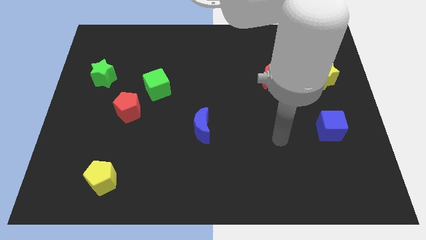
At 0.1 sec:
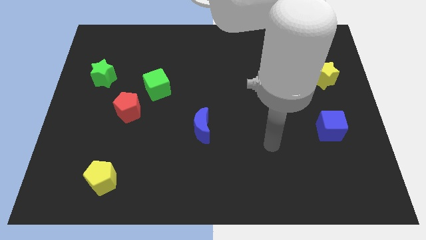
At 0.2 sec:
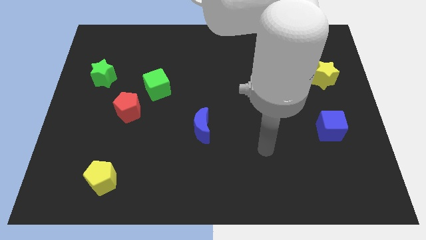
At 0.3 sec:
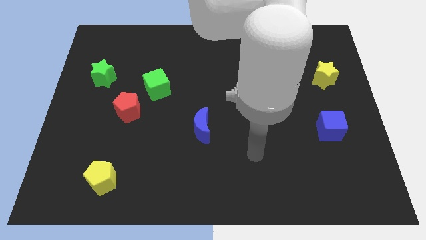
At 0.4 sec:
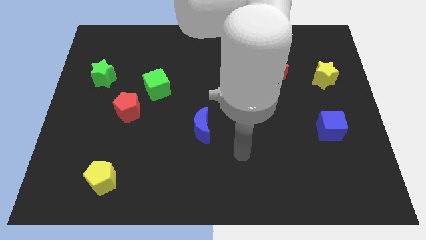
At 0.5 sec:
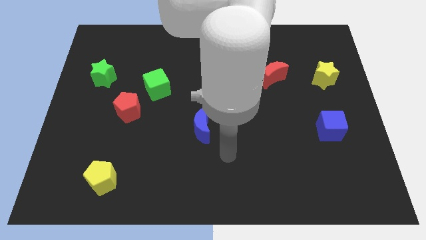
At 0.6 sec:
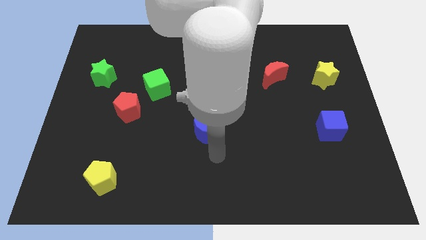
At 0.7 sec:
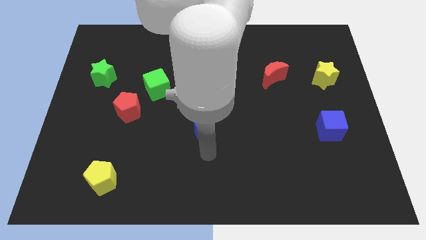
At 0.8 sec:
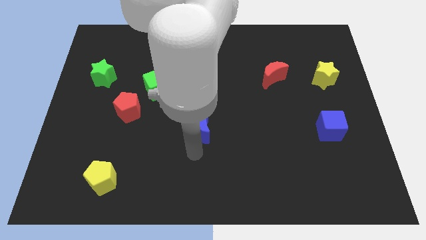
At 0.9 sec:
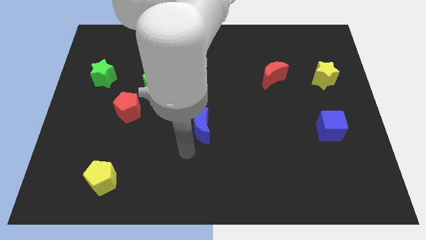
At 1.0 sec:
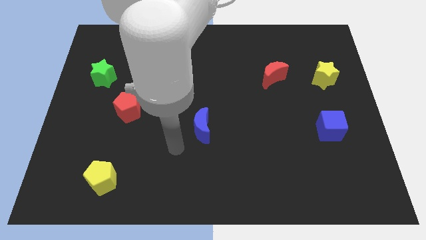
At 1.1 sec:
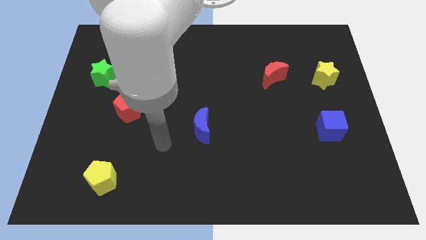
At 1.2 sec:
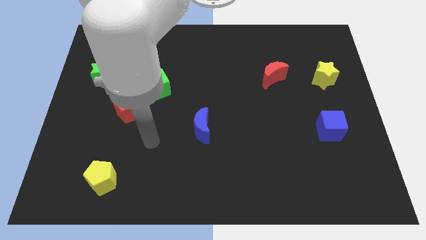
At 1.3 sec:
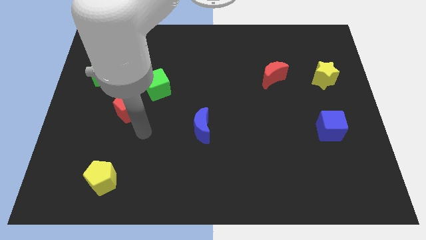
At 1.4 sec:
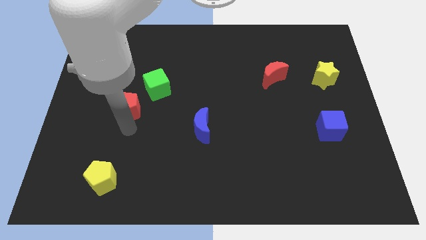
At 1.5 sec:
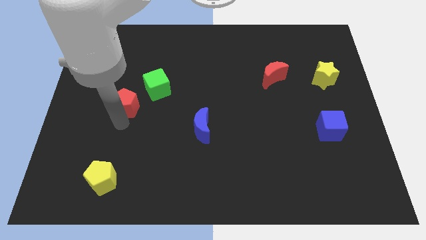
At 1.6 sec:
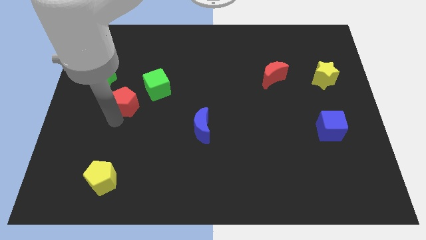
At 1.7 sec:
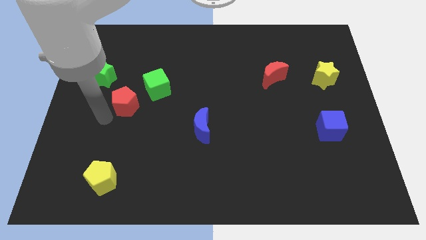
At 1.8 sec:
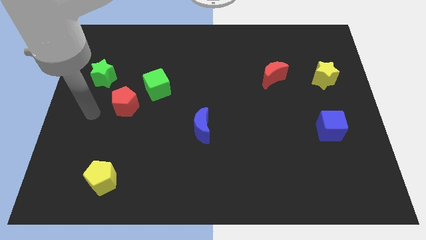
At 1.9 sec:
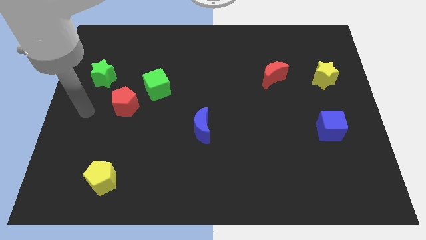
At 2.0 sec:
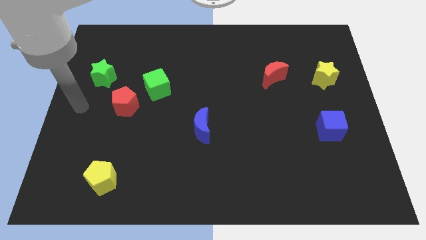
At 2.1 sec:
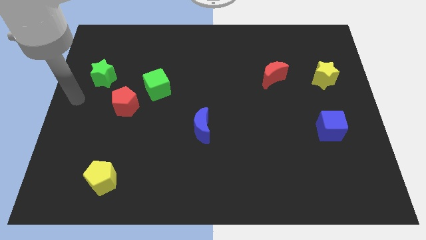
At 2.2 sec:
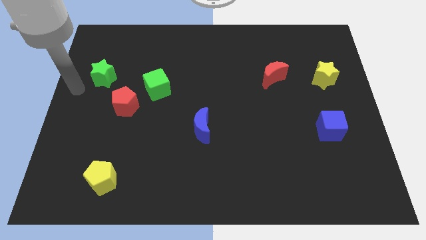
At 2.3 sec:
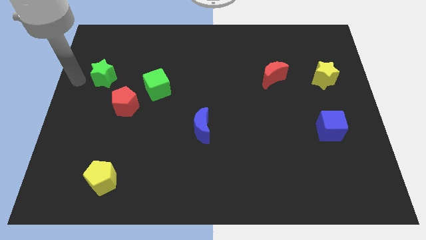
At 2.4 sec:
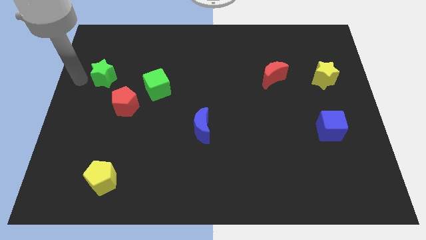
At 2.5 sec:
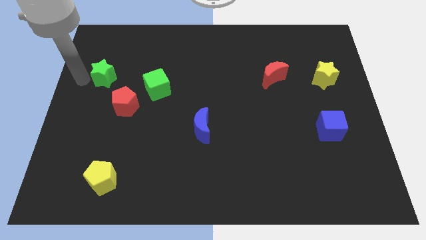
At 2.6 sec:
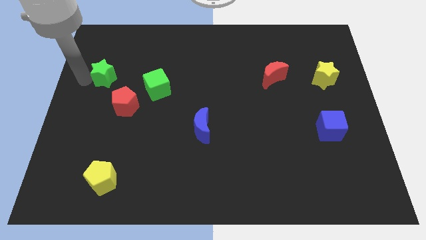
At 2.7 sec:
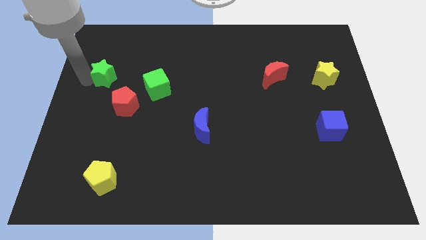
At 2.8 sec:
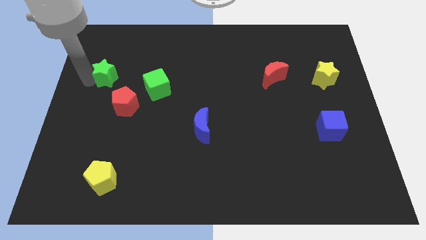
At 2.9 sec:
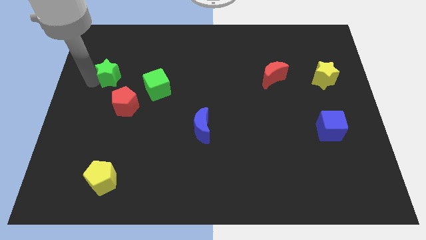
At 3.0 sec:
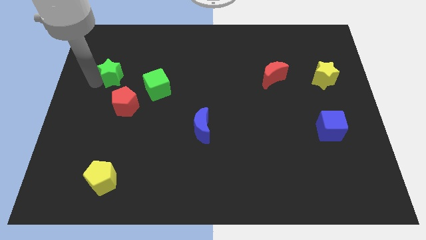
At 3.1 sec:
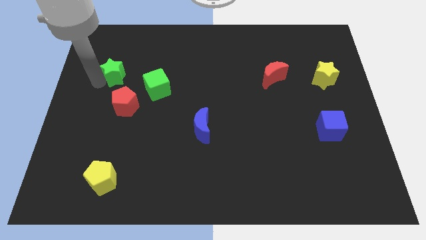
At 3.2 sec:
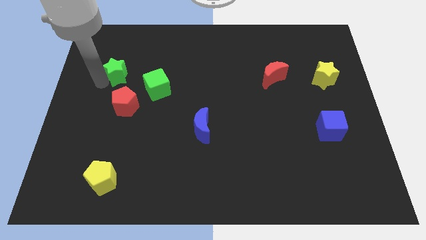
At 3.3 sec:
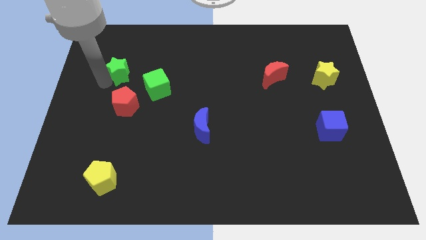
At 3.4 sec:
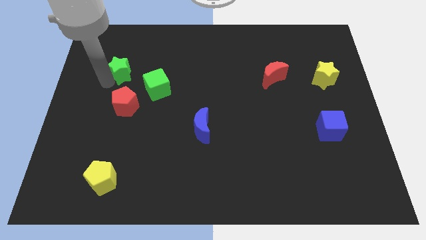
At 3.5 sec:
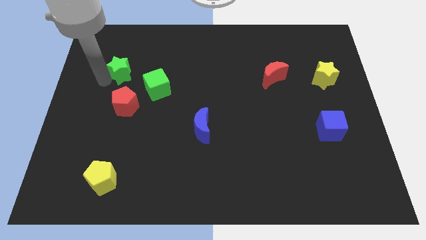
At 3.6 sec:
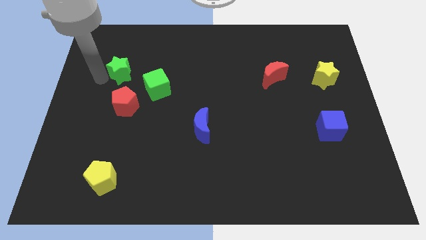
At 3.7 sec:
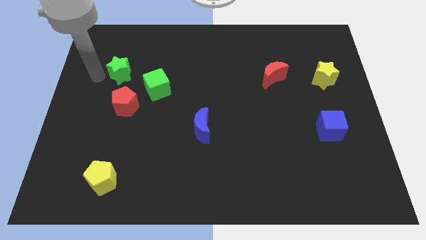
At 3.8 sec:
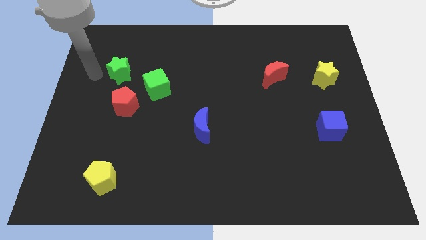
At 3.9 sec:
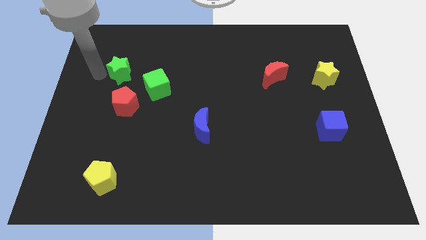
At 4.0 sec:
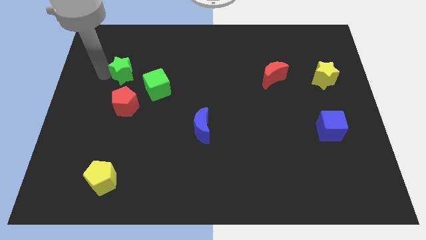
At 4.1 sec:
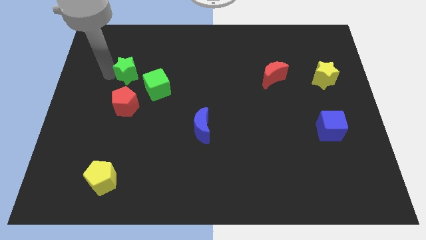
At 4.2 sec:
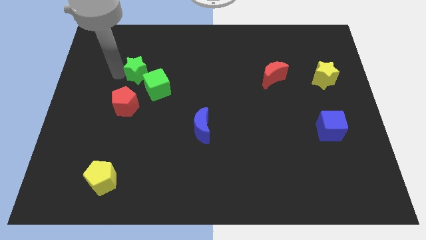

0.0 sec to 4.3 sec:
slide the green star a bit to the right

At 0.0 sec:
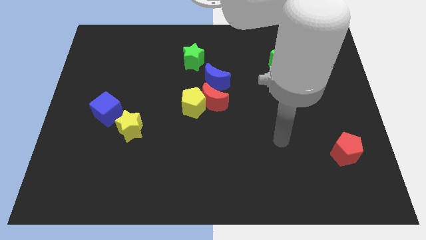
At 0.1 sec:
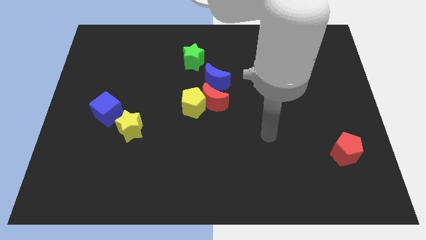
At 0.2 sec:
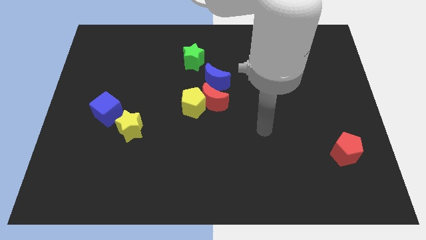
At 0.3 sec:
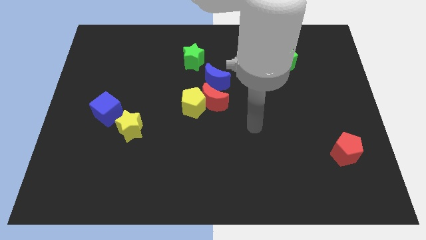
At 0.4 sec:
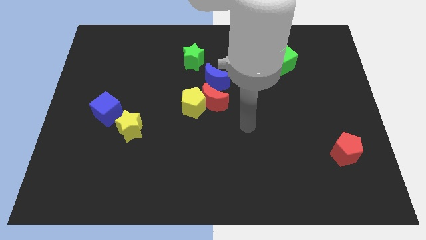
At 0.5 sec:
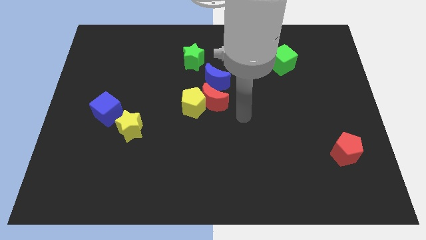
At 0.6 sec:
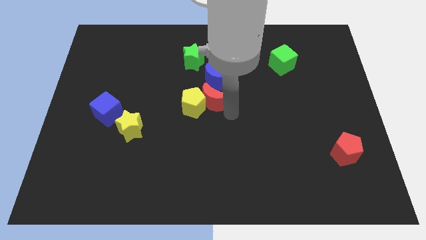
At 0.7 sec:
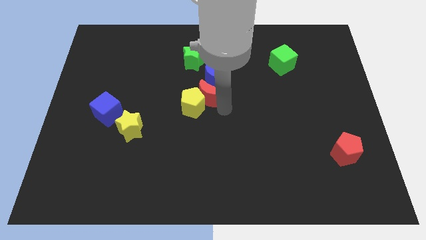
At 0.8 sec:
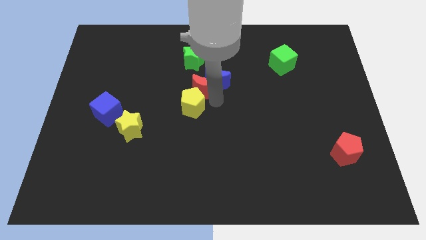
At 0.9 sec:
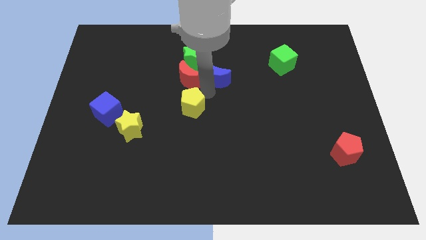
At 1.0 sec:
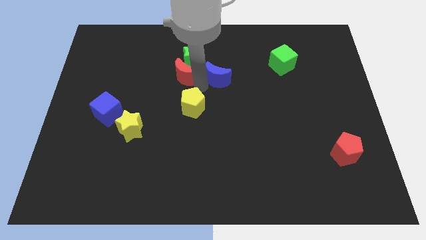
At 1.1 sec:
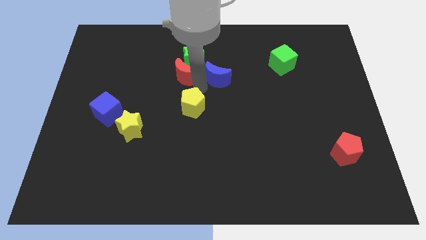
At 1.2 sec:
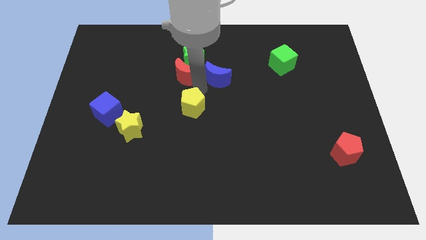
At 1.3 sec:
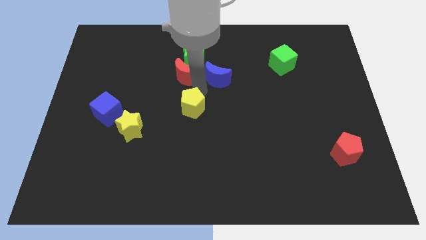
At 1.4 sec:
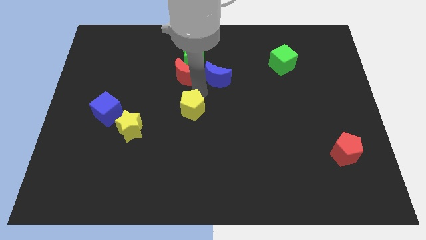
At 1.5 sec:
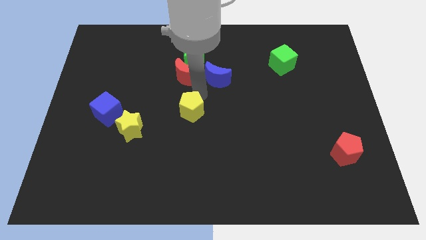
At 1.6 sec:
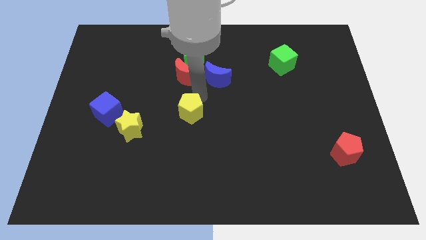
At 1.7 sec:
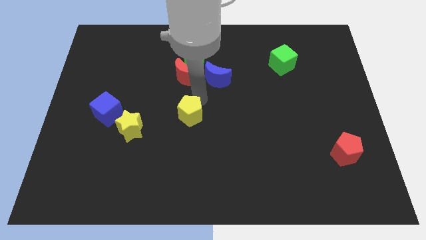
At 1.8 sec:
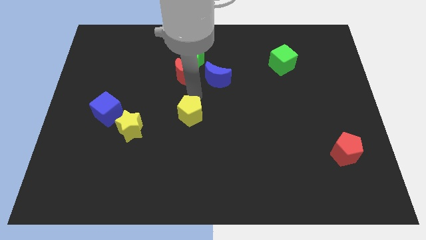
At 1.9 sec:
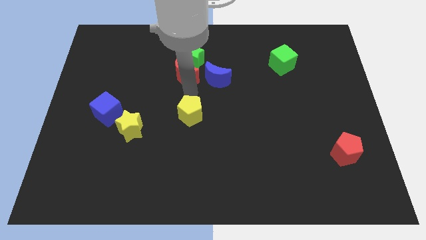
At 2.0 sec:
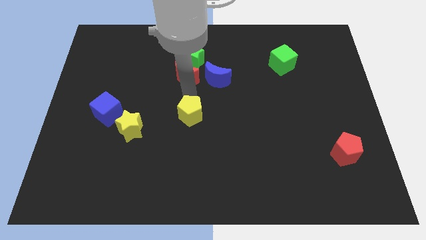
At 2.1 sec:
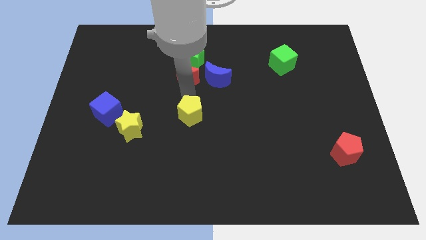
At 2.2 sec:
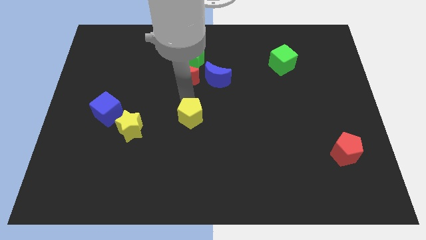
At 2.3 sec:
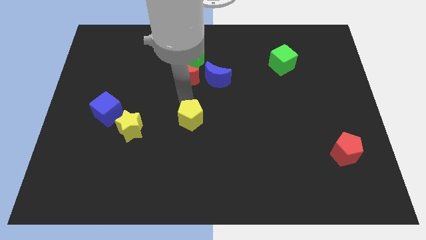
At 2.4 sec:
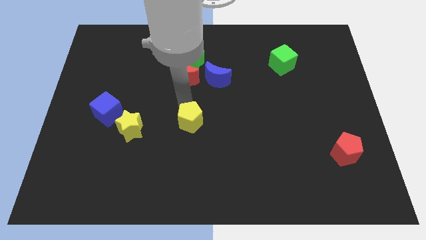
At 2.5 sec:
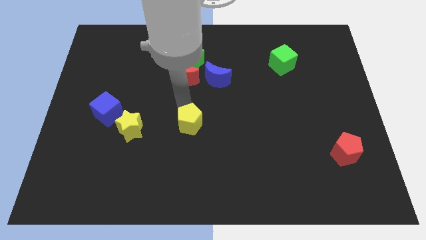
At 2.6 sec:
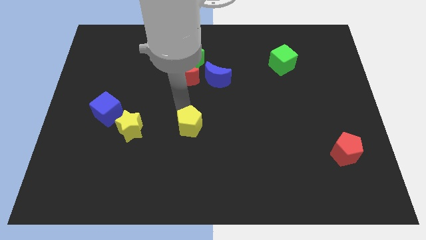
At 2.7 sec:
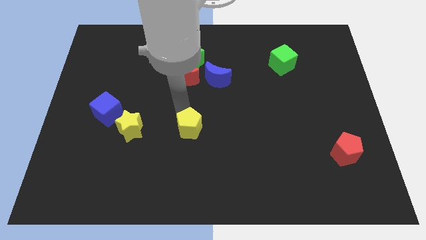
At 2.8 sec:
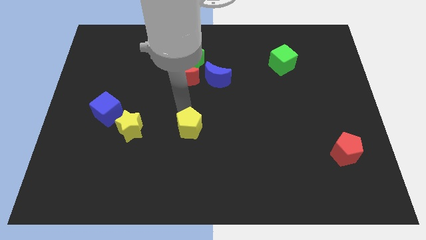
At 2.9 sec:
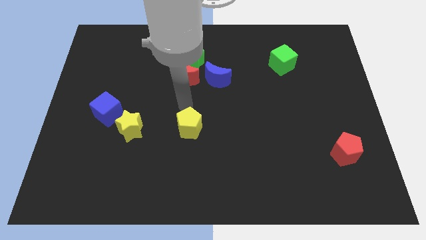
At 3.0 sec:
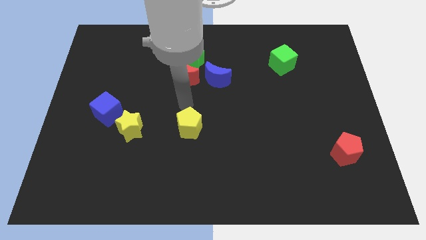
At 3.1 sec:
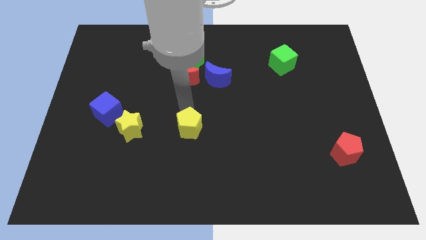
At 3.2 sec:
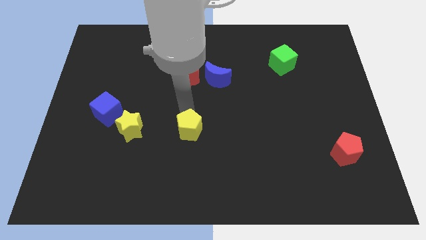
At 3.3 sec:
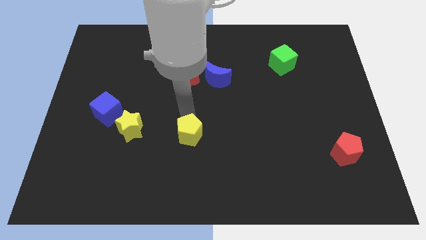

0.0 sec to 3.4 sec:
move the yellow pentagon downwards somewhat

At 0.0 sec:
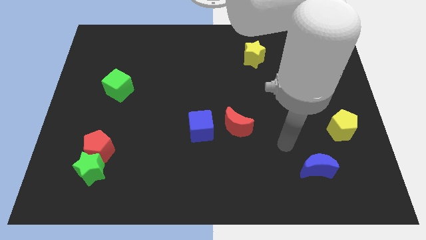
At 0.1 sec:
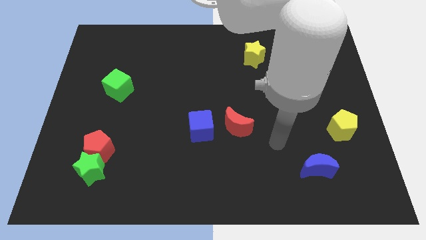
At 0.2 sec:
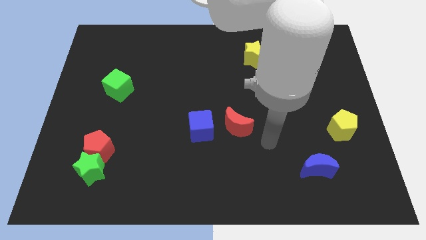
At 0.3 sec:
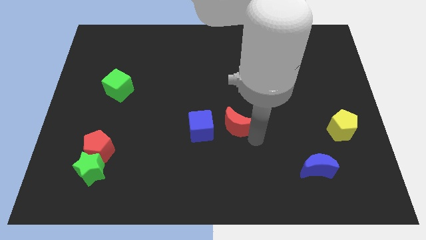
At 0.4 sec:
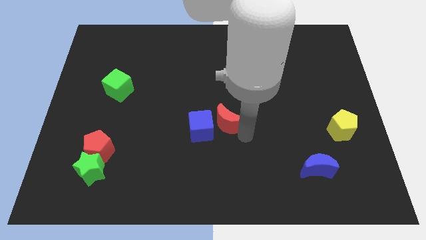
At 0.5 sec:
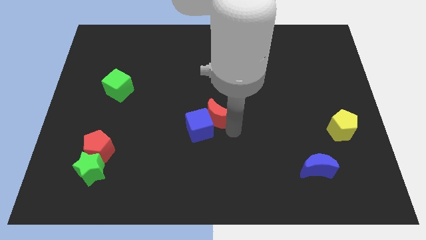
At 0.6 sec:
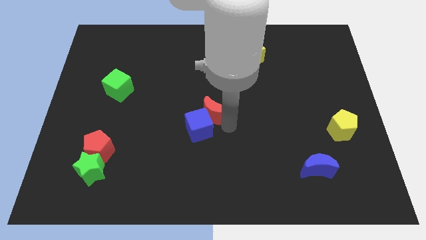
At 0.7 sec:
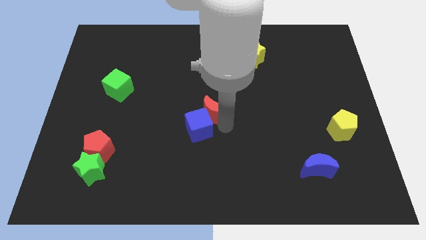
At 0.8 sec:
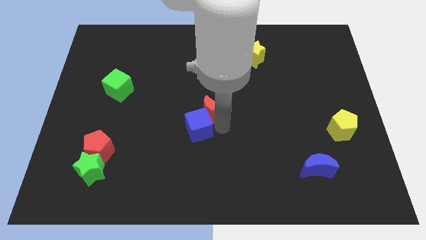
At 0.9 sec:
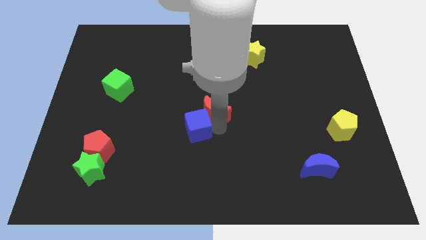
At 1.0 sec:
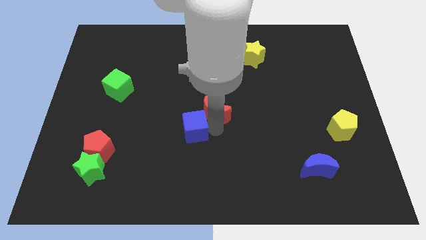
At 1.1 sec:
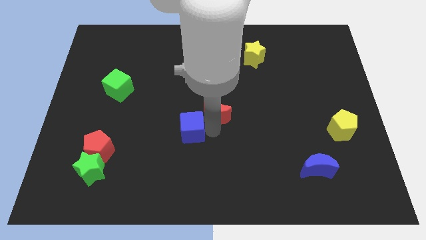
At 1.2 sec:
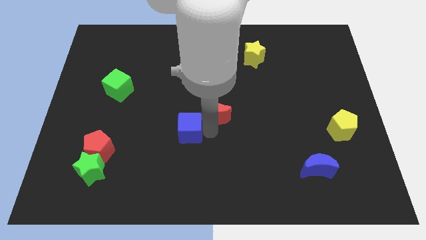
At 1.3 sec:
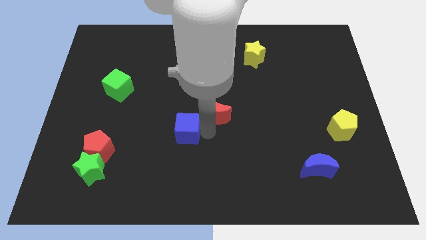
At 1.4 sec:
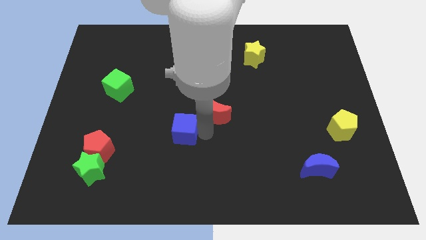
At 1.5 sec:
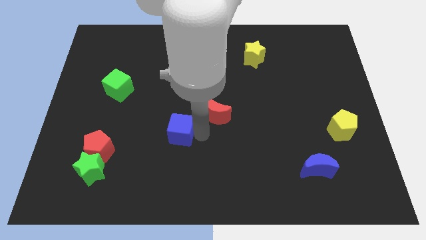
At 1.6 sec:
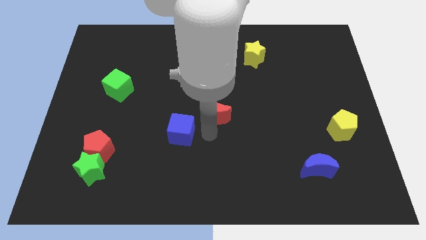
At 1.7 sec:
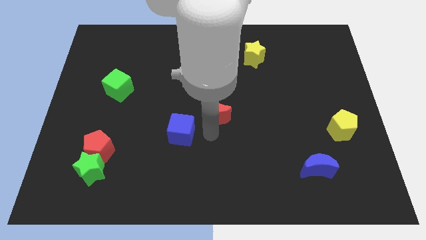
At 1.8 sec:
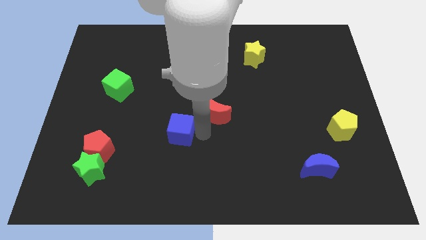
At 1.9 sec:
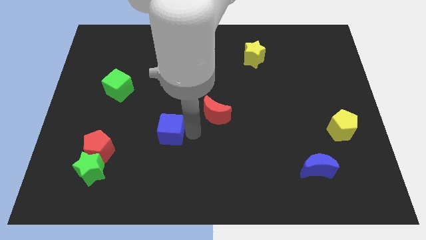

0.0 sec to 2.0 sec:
slightly push the blue cube left
